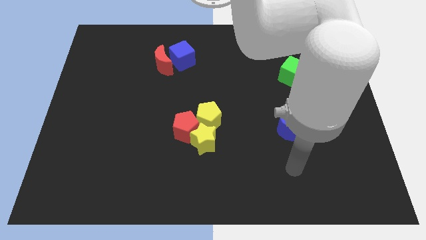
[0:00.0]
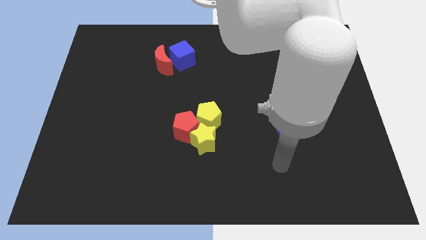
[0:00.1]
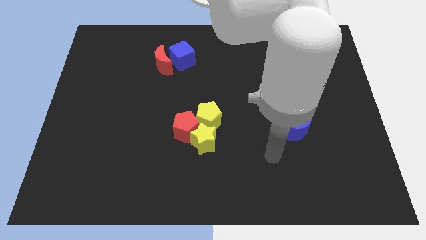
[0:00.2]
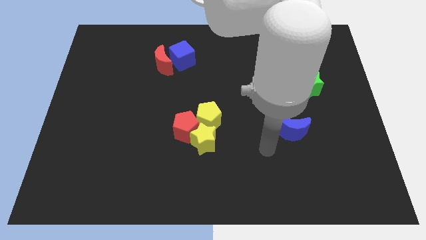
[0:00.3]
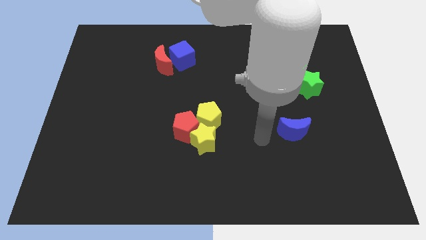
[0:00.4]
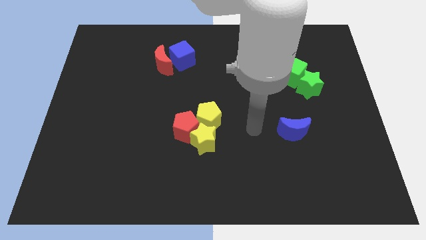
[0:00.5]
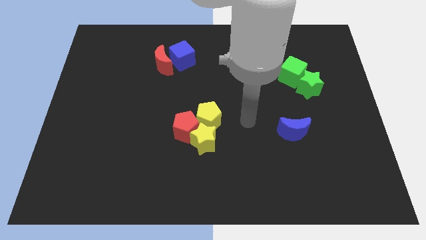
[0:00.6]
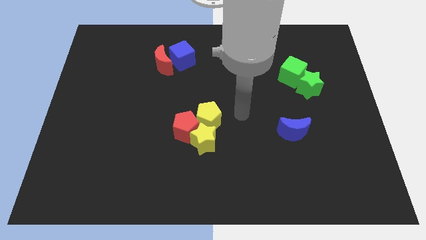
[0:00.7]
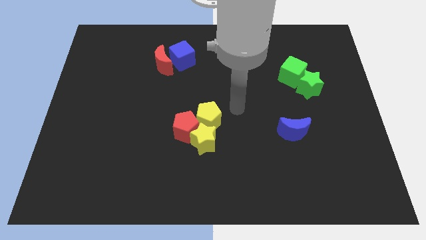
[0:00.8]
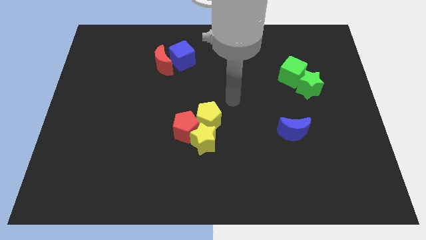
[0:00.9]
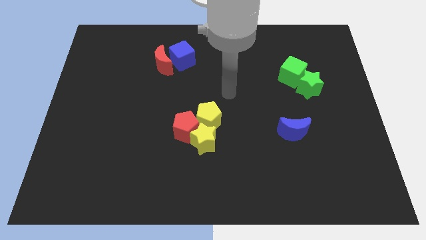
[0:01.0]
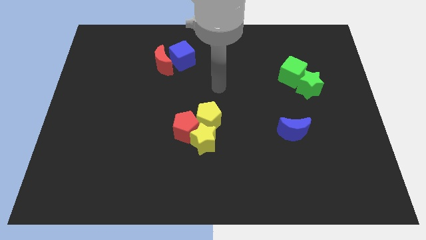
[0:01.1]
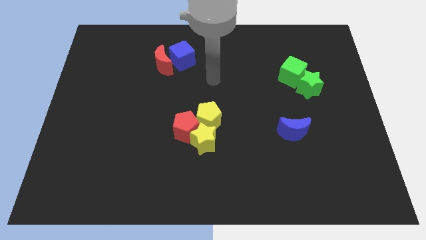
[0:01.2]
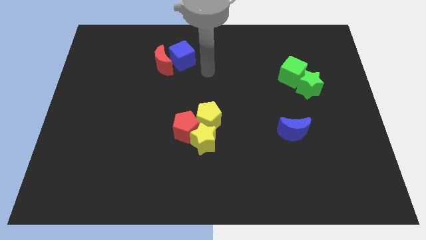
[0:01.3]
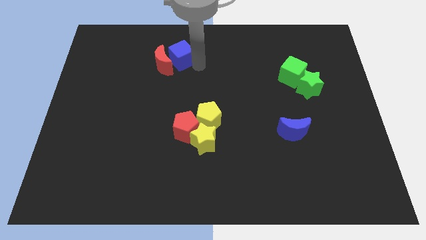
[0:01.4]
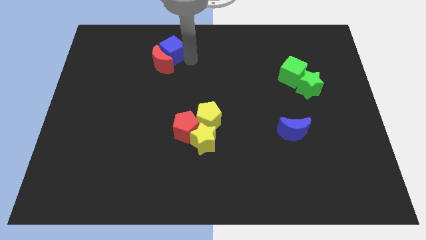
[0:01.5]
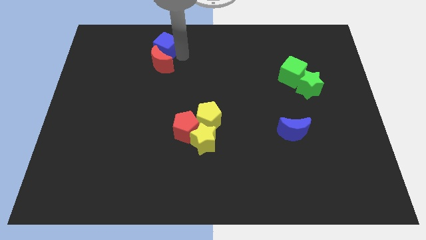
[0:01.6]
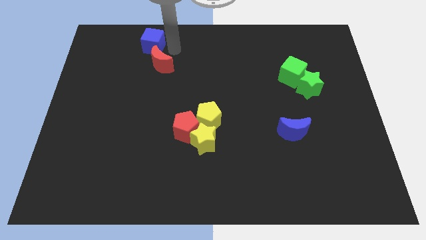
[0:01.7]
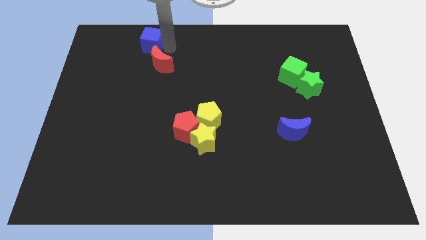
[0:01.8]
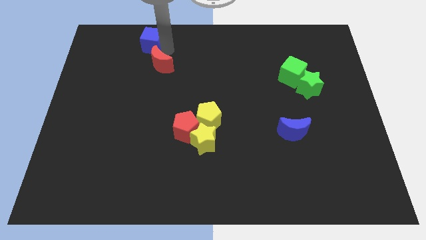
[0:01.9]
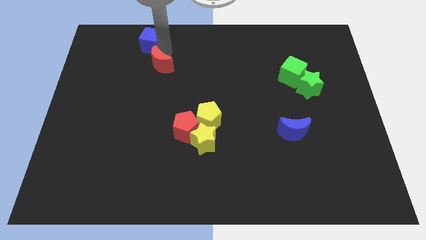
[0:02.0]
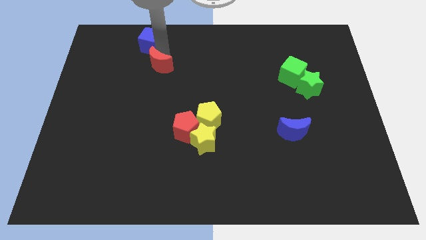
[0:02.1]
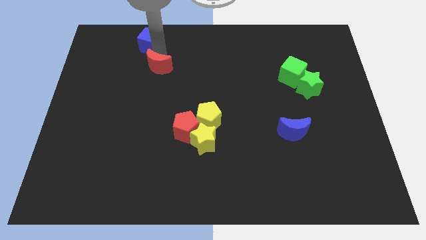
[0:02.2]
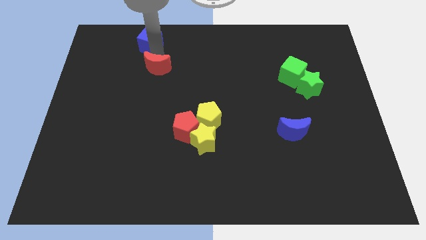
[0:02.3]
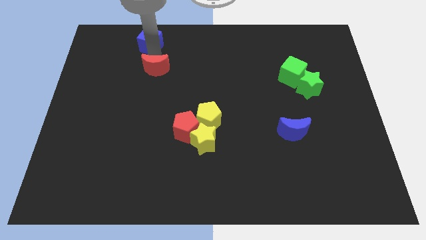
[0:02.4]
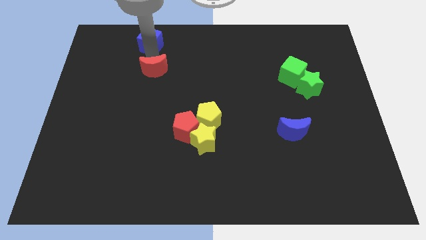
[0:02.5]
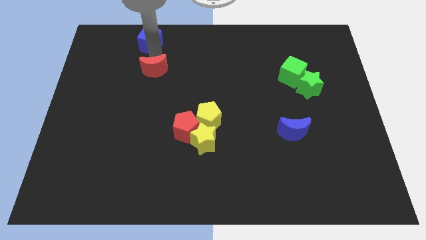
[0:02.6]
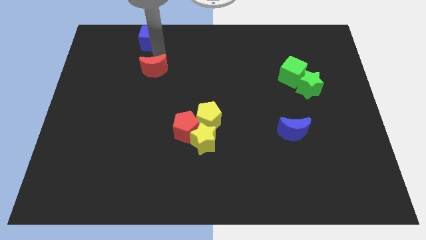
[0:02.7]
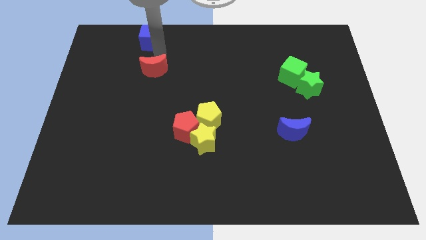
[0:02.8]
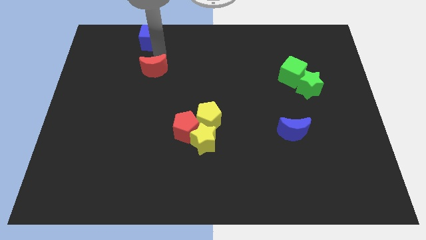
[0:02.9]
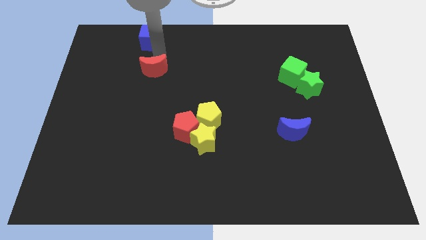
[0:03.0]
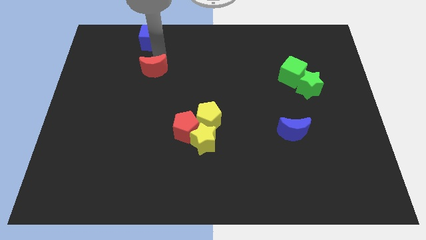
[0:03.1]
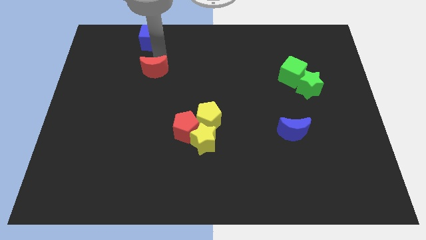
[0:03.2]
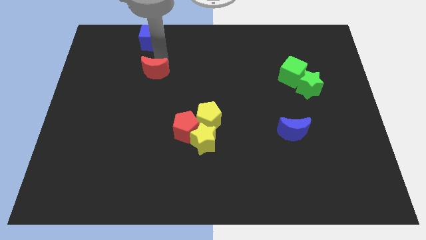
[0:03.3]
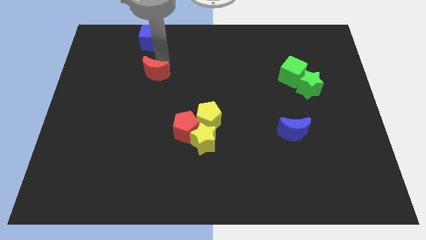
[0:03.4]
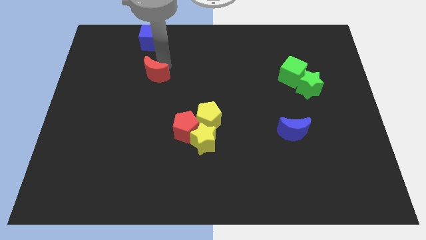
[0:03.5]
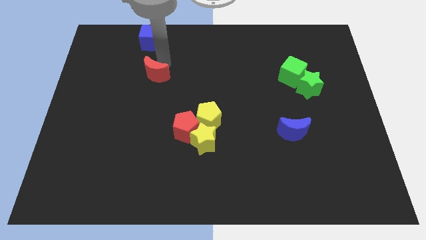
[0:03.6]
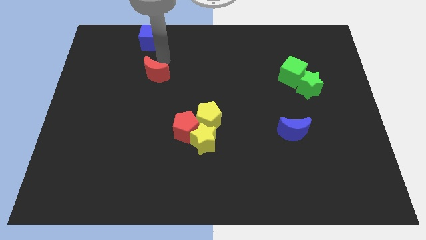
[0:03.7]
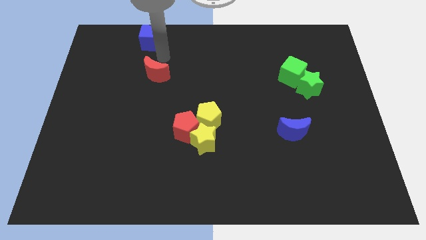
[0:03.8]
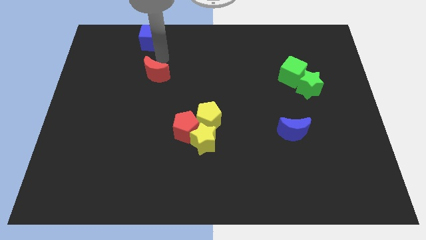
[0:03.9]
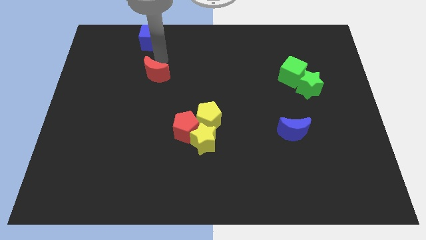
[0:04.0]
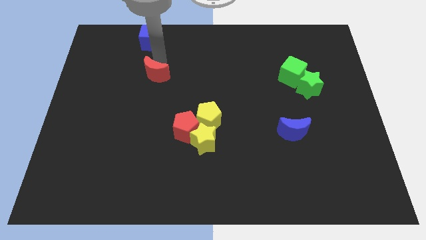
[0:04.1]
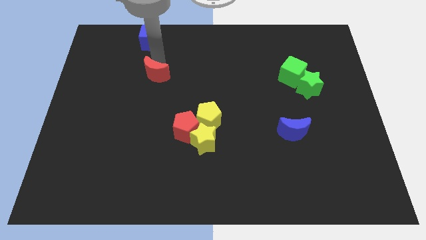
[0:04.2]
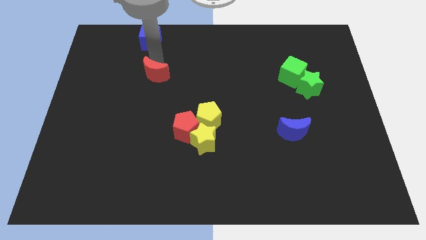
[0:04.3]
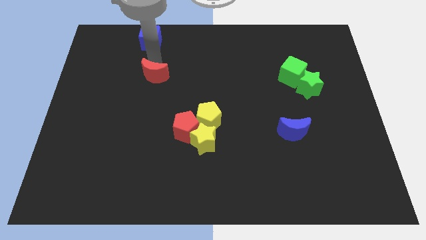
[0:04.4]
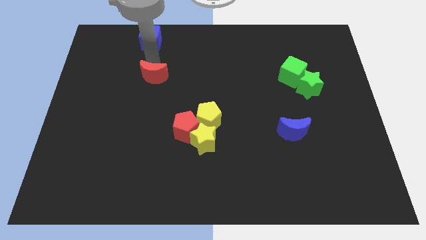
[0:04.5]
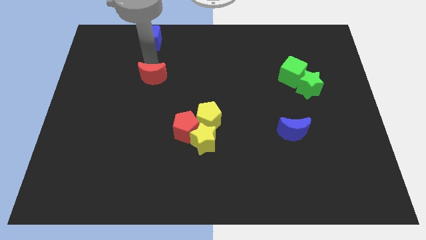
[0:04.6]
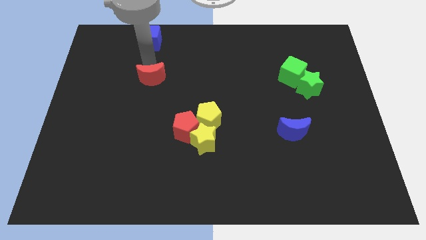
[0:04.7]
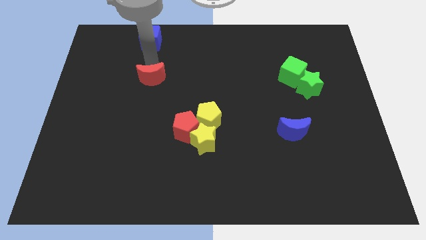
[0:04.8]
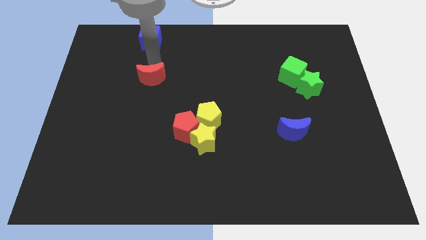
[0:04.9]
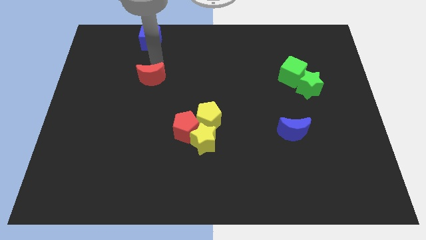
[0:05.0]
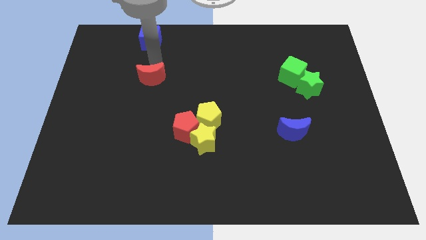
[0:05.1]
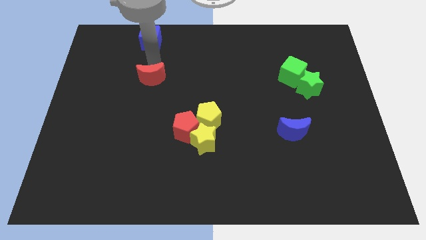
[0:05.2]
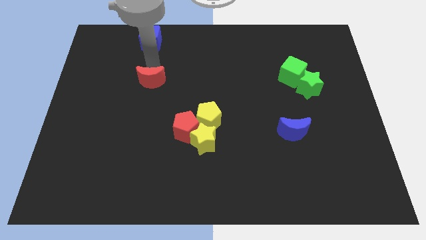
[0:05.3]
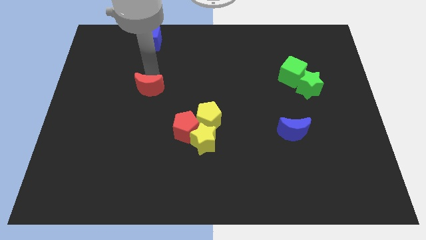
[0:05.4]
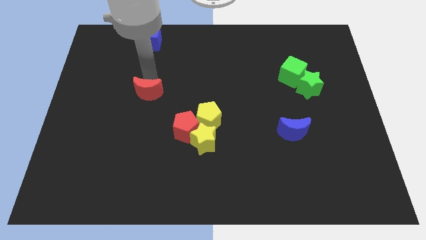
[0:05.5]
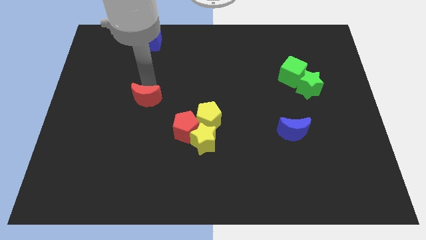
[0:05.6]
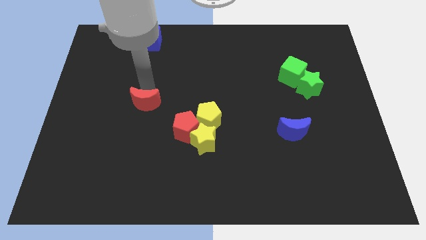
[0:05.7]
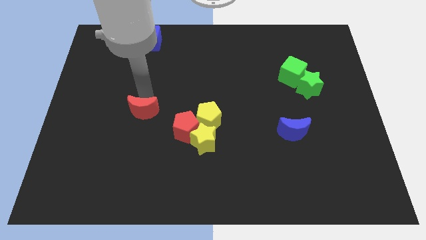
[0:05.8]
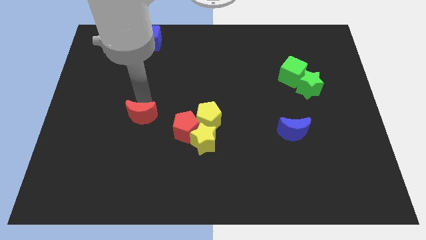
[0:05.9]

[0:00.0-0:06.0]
move the red moon to the left side of the red pentagon

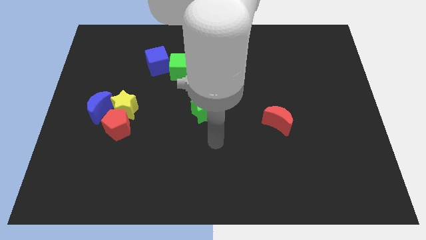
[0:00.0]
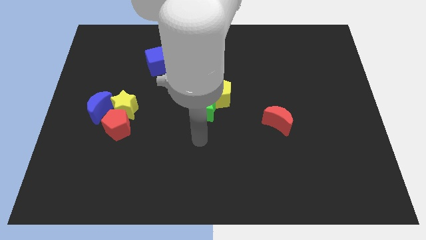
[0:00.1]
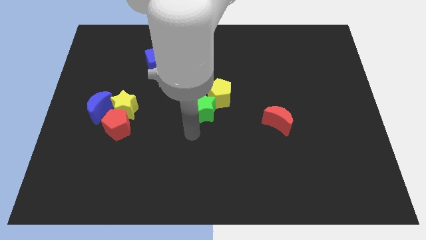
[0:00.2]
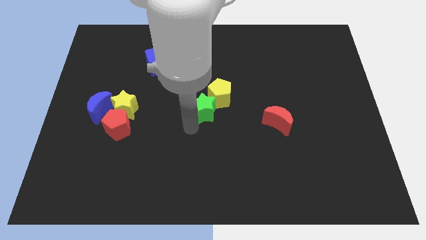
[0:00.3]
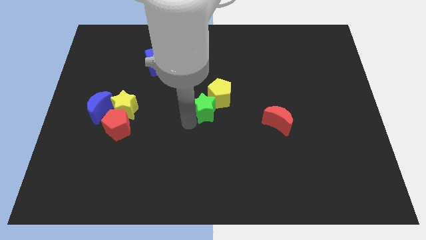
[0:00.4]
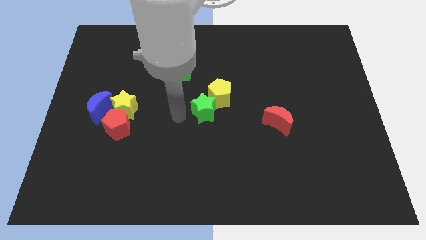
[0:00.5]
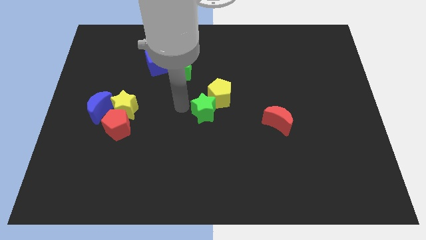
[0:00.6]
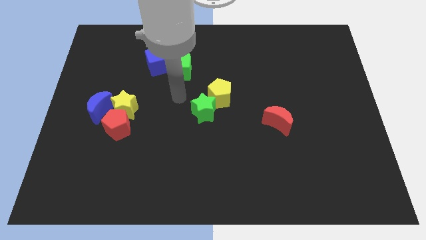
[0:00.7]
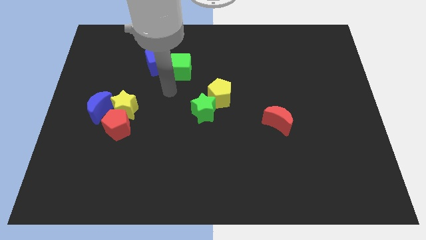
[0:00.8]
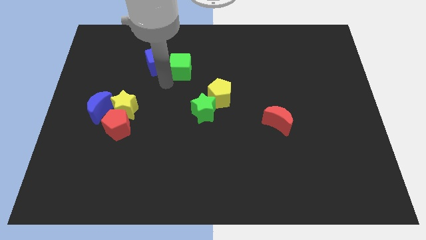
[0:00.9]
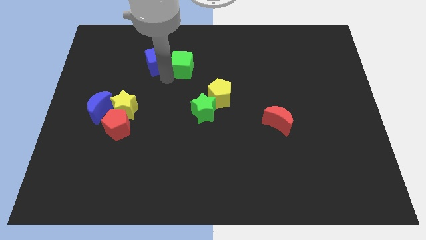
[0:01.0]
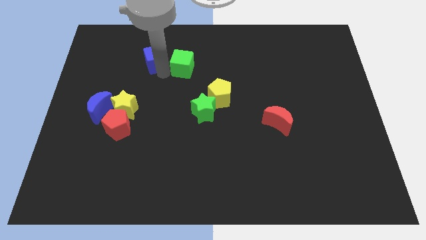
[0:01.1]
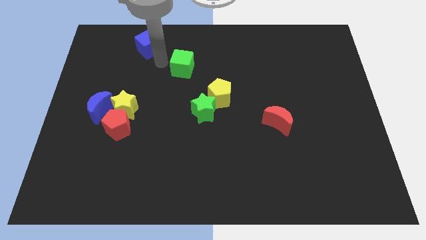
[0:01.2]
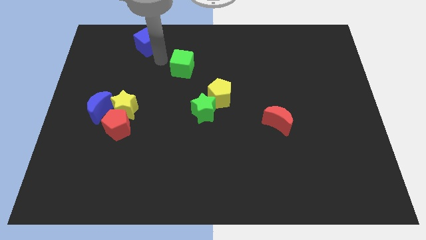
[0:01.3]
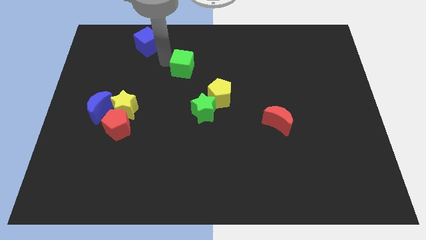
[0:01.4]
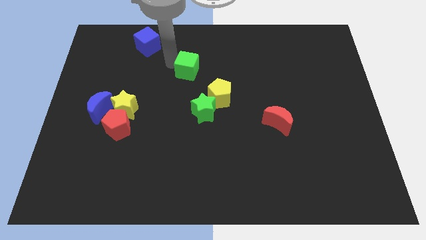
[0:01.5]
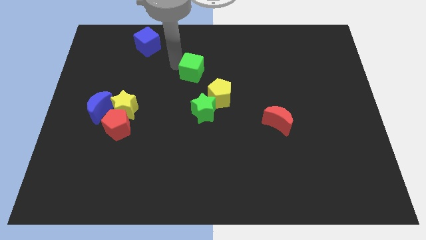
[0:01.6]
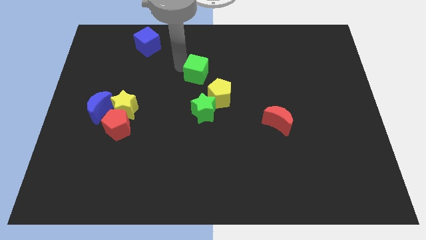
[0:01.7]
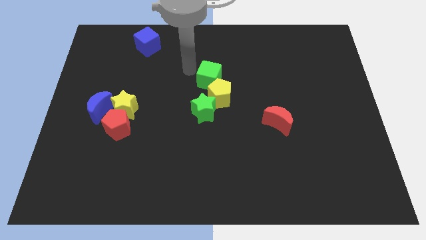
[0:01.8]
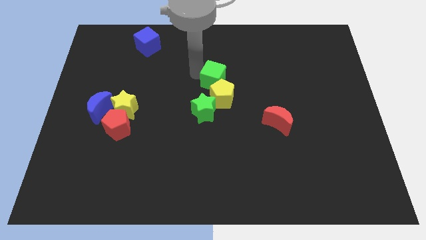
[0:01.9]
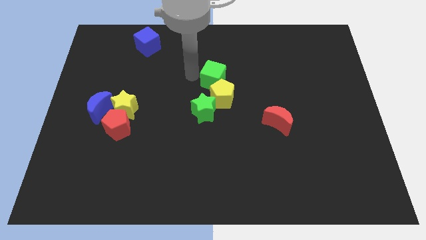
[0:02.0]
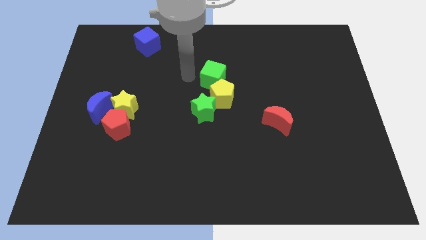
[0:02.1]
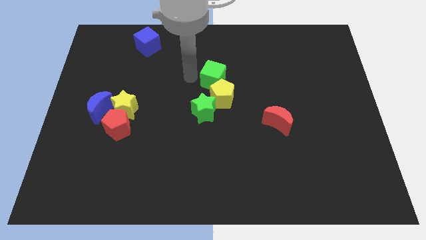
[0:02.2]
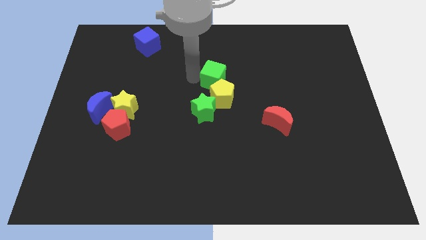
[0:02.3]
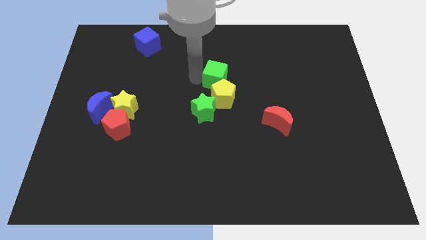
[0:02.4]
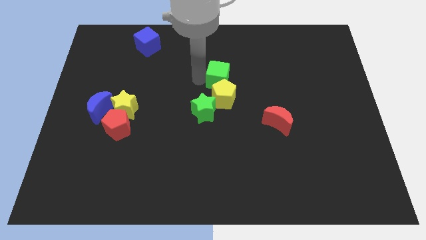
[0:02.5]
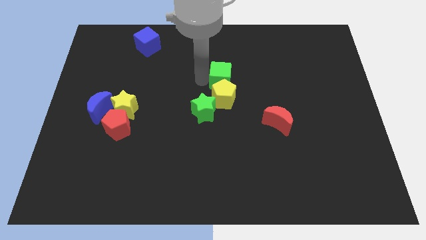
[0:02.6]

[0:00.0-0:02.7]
push the green cube to the top right side of the yellow pentagon
